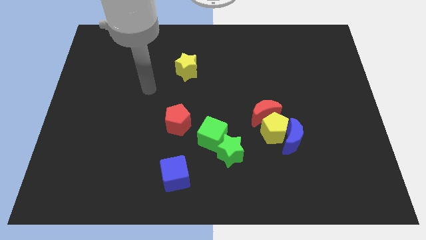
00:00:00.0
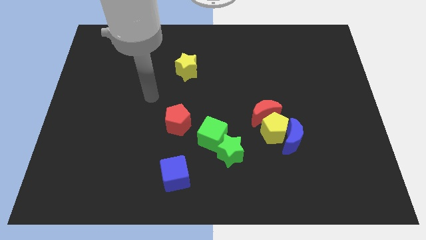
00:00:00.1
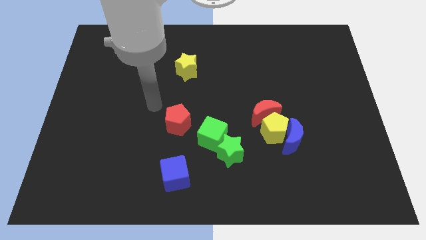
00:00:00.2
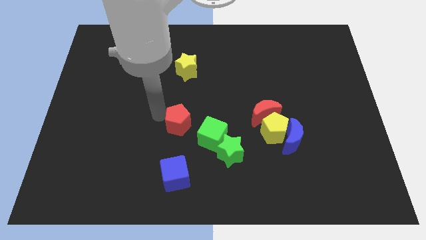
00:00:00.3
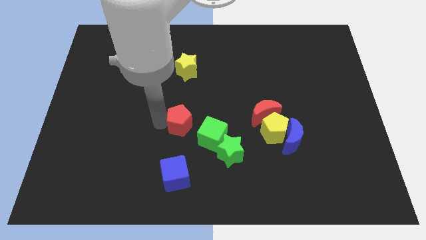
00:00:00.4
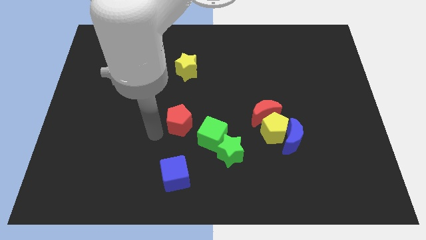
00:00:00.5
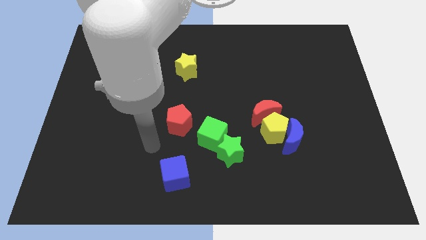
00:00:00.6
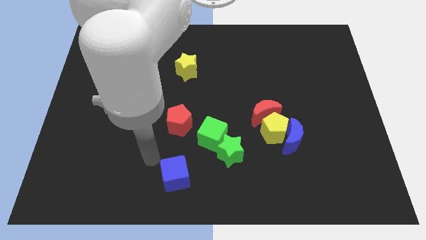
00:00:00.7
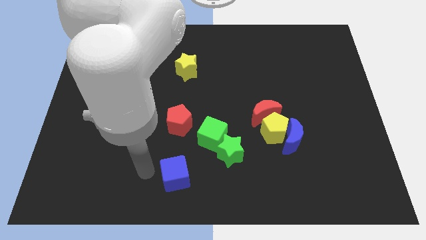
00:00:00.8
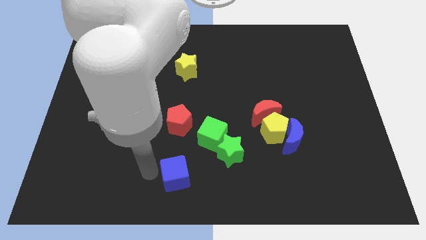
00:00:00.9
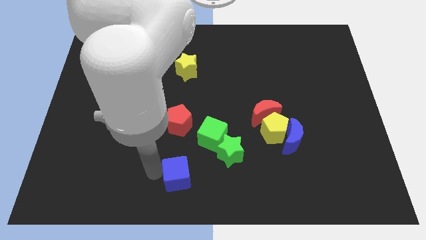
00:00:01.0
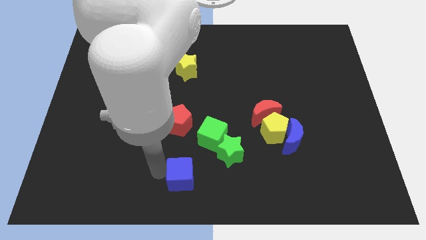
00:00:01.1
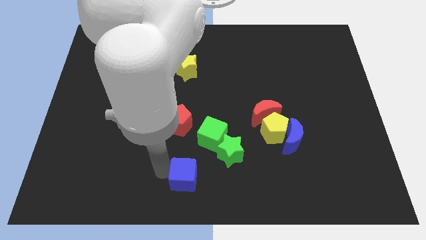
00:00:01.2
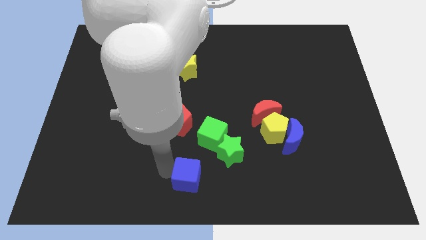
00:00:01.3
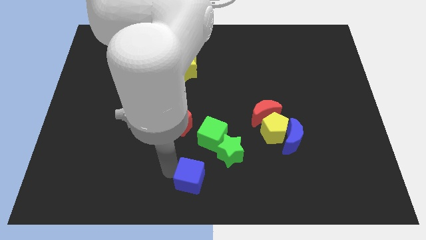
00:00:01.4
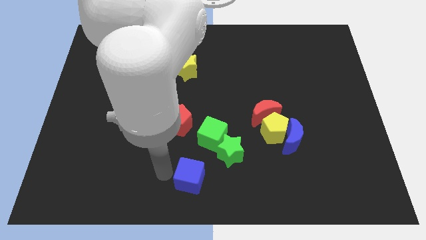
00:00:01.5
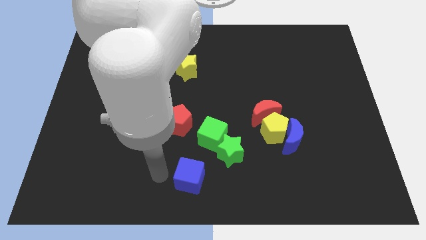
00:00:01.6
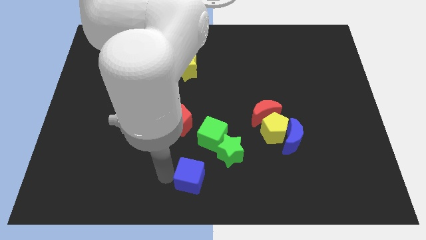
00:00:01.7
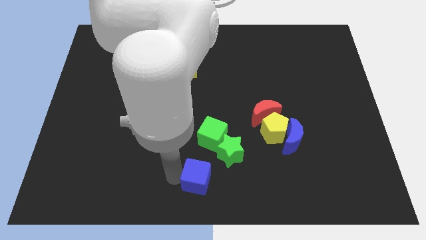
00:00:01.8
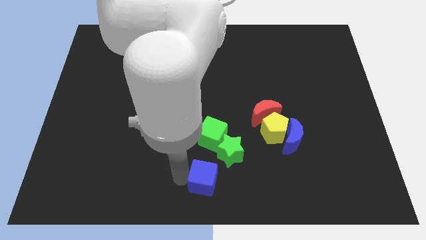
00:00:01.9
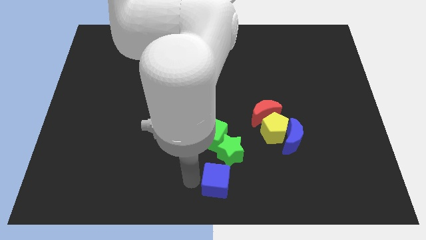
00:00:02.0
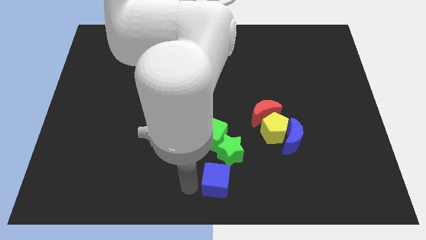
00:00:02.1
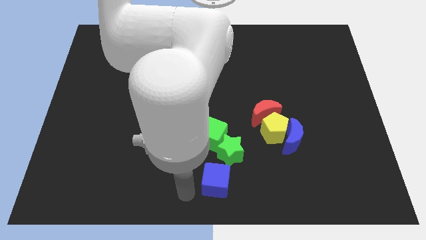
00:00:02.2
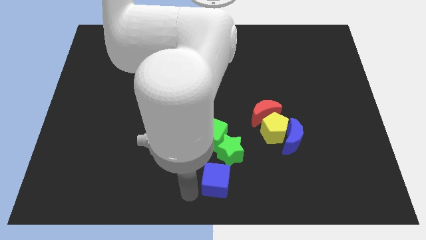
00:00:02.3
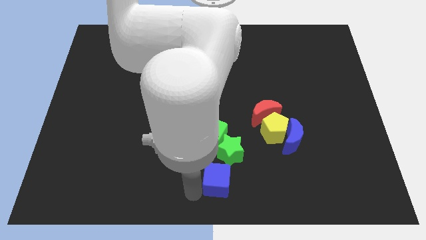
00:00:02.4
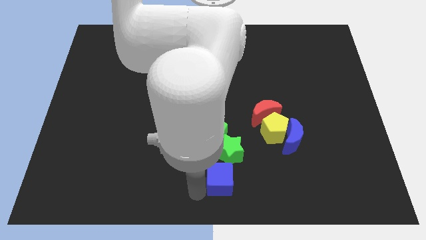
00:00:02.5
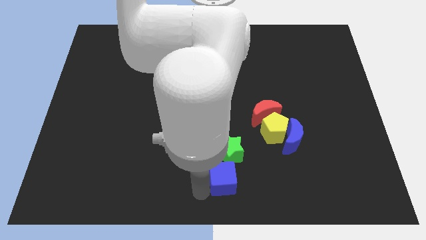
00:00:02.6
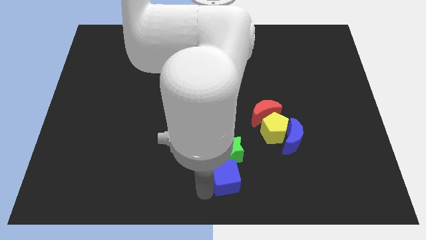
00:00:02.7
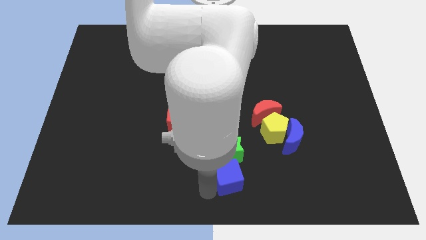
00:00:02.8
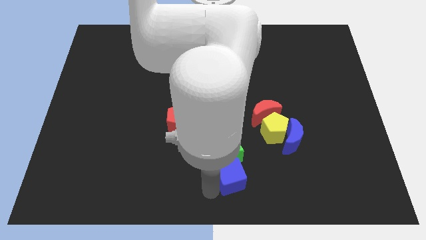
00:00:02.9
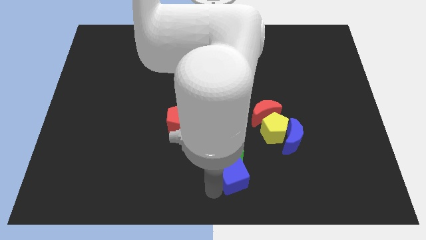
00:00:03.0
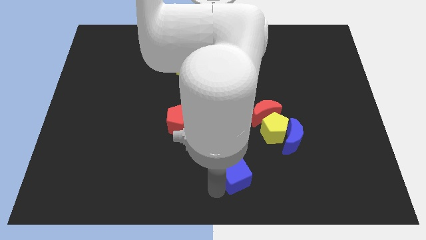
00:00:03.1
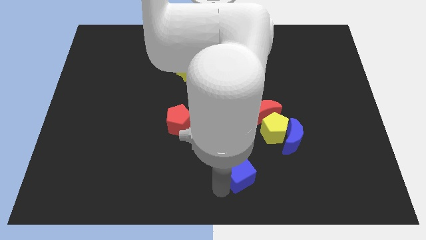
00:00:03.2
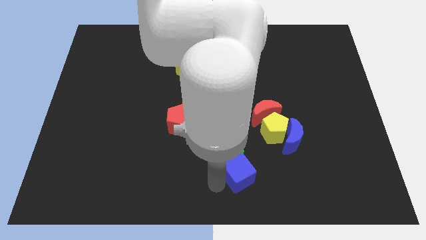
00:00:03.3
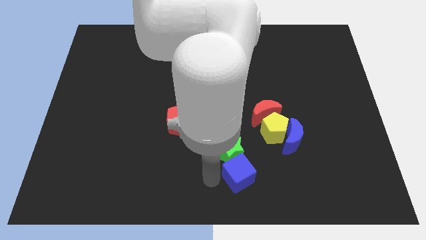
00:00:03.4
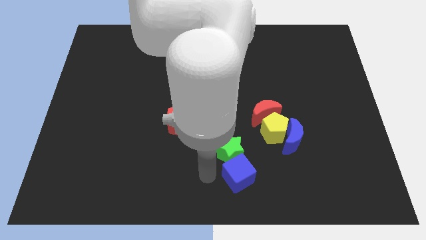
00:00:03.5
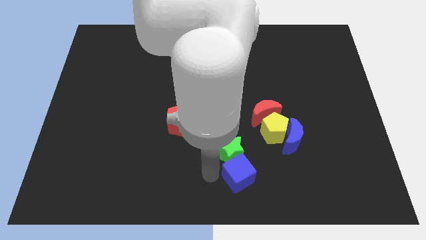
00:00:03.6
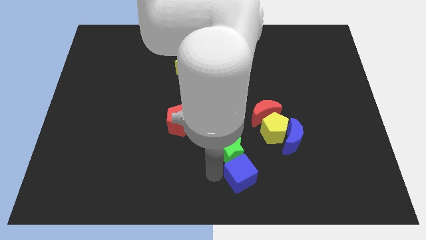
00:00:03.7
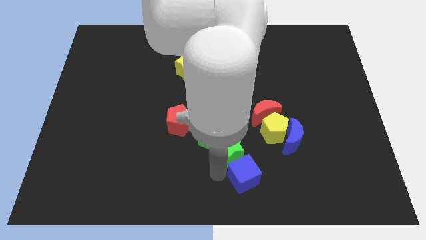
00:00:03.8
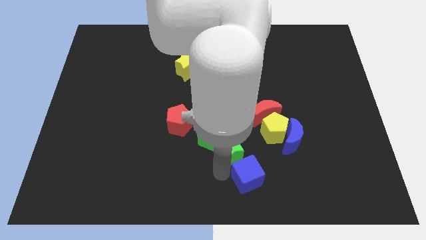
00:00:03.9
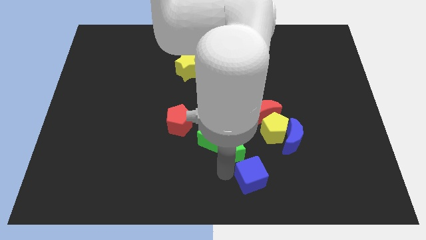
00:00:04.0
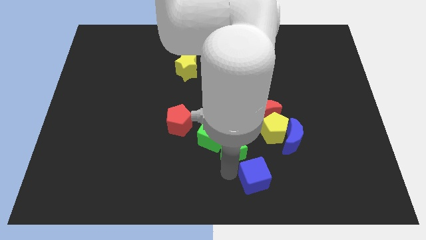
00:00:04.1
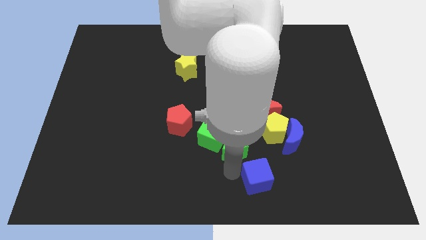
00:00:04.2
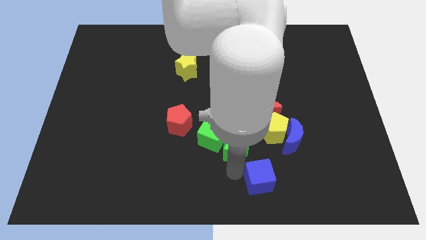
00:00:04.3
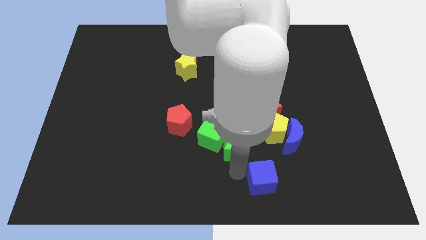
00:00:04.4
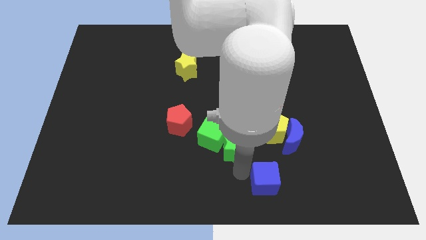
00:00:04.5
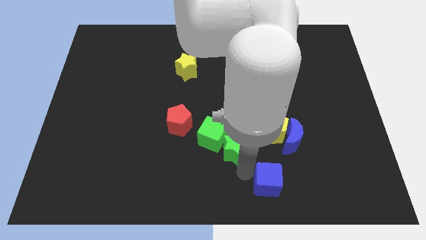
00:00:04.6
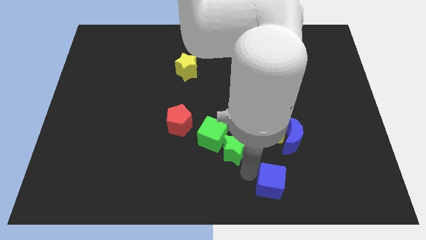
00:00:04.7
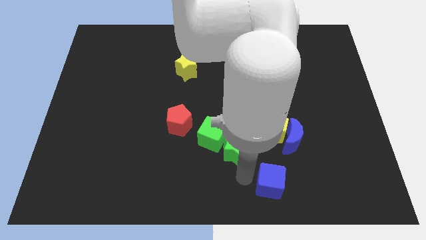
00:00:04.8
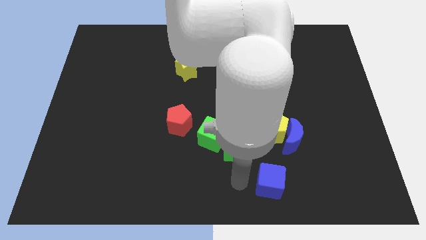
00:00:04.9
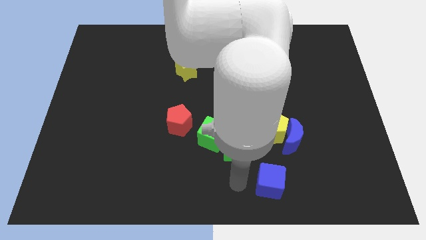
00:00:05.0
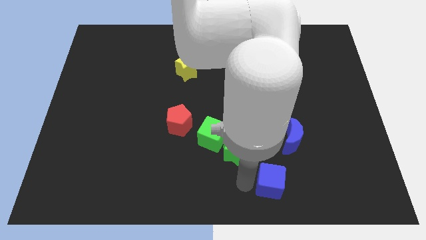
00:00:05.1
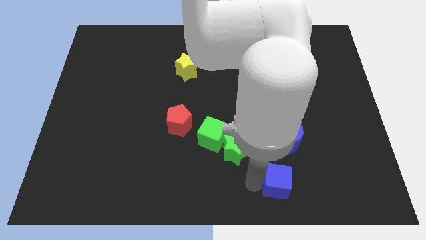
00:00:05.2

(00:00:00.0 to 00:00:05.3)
slide the blue cube below the blue moon
